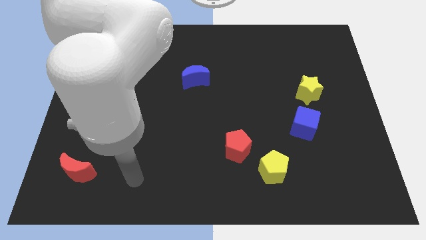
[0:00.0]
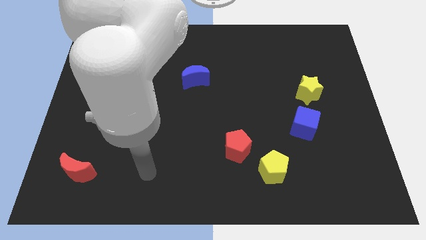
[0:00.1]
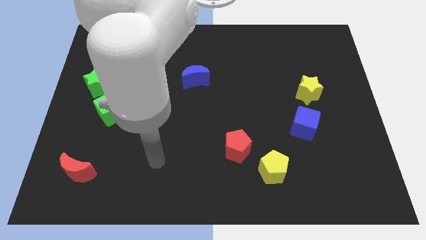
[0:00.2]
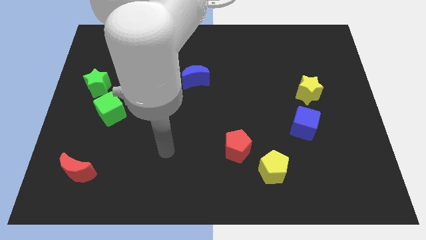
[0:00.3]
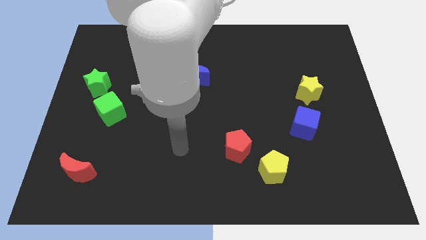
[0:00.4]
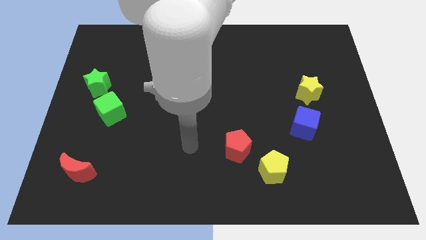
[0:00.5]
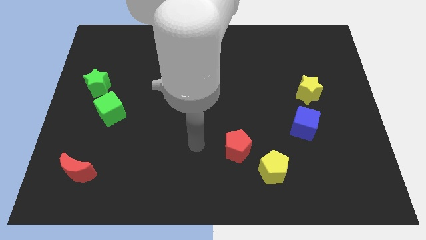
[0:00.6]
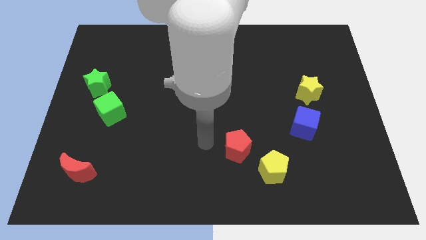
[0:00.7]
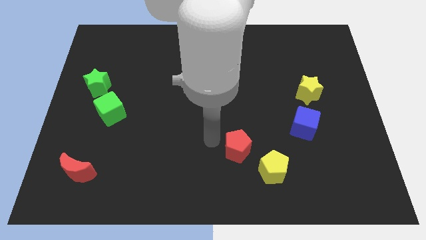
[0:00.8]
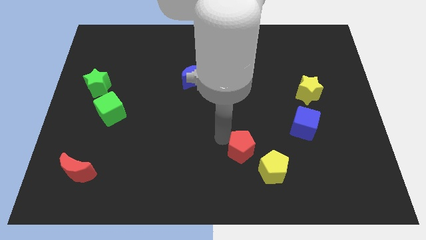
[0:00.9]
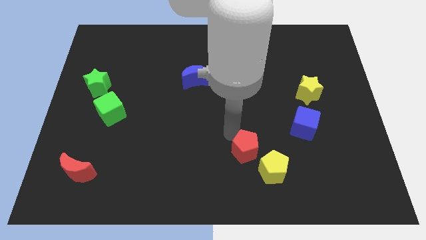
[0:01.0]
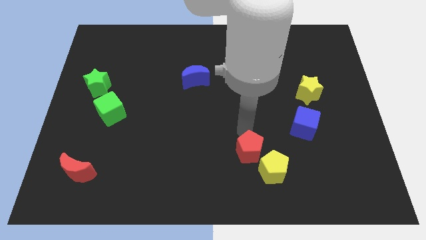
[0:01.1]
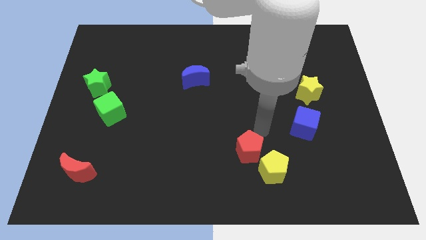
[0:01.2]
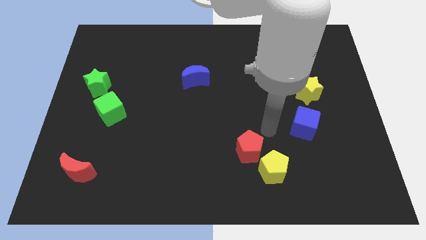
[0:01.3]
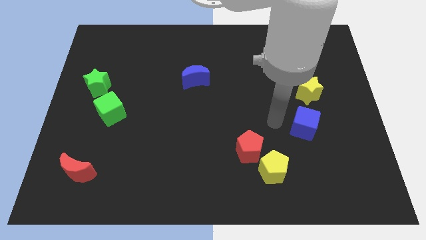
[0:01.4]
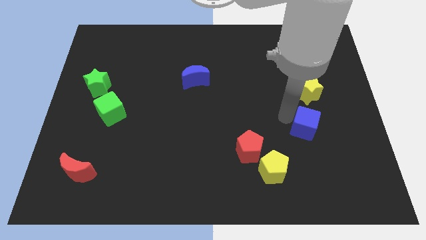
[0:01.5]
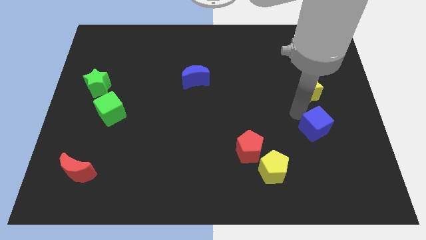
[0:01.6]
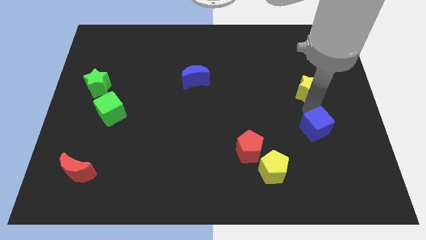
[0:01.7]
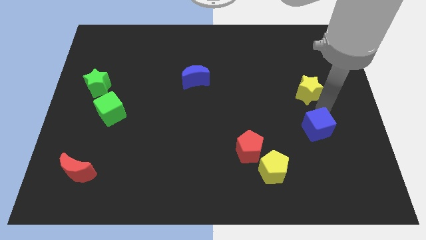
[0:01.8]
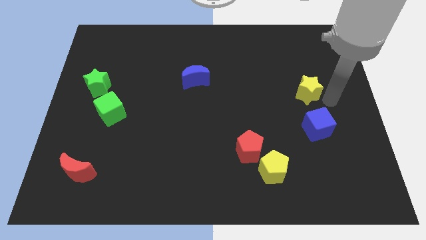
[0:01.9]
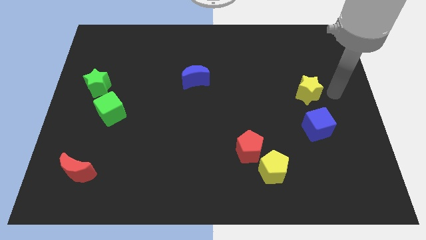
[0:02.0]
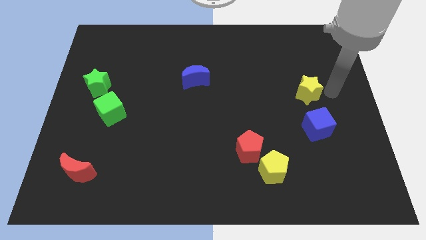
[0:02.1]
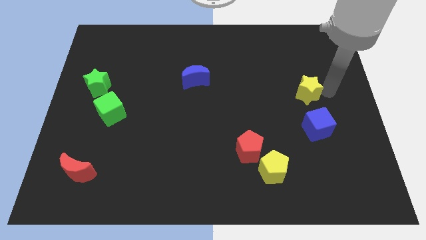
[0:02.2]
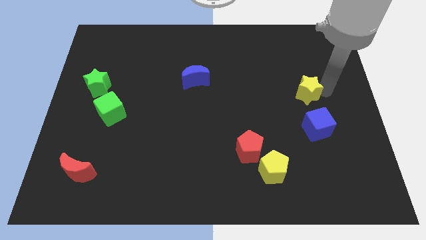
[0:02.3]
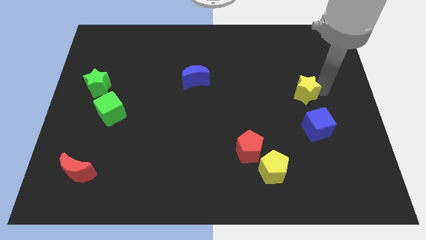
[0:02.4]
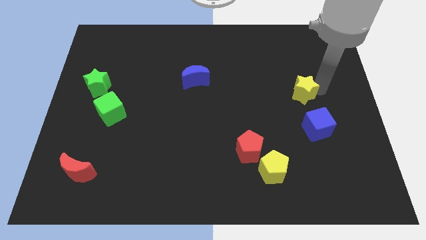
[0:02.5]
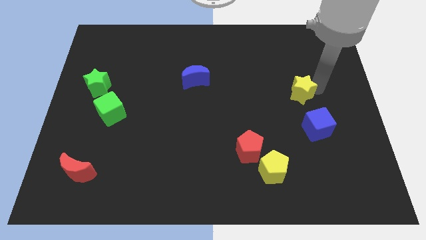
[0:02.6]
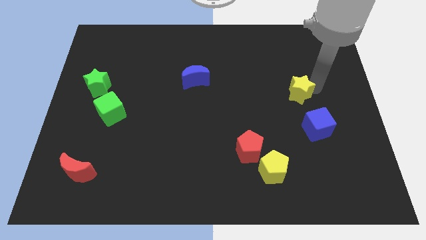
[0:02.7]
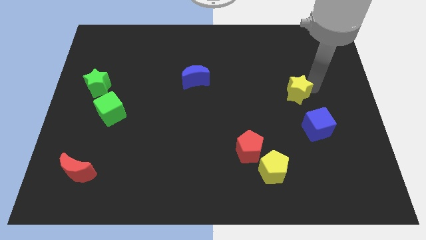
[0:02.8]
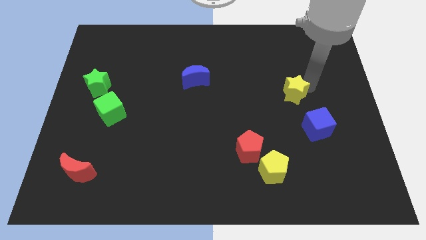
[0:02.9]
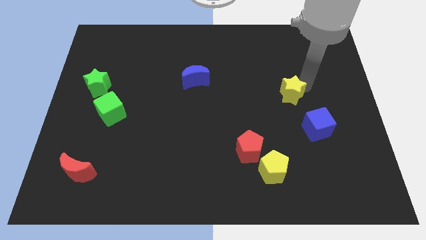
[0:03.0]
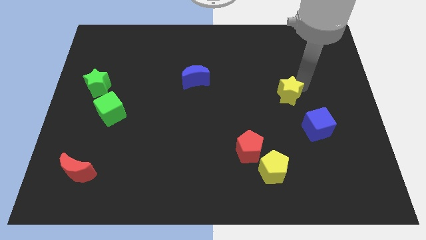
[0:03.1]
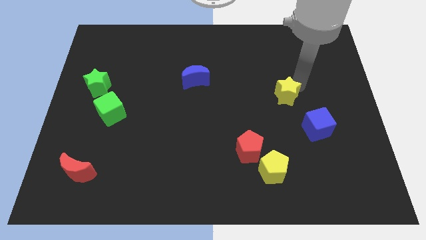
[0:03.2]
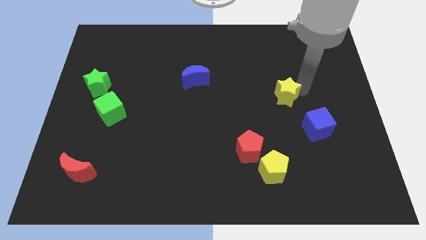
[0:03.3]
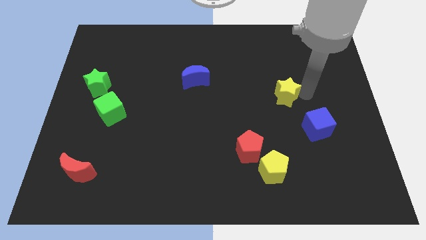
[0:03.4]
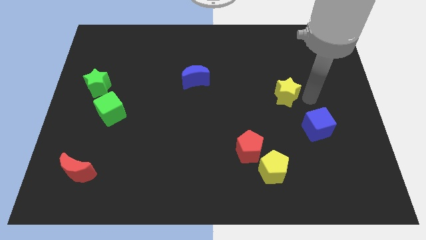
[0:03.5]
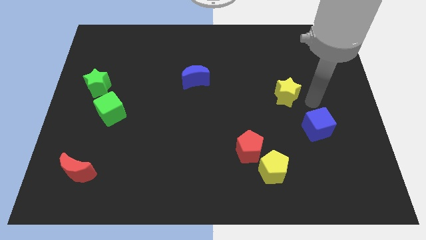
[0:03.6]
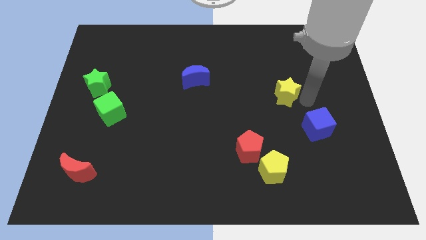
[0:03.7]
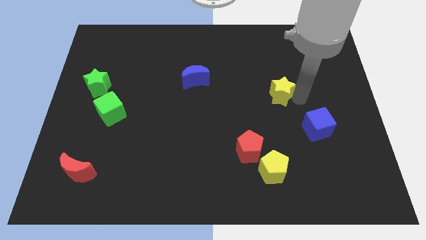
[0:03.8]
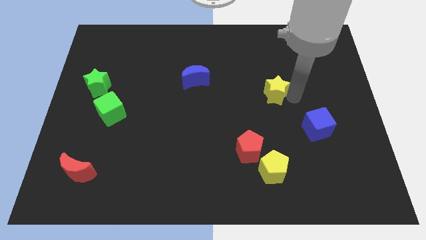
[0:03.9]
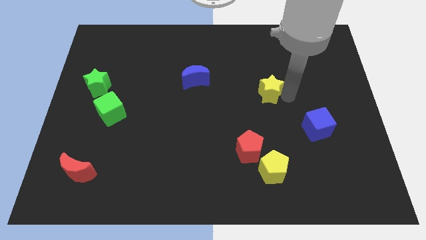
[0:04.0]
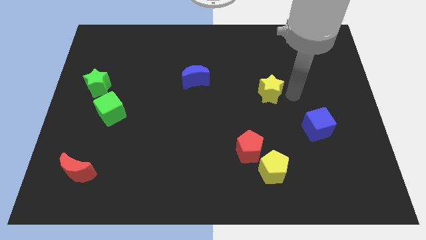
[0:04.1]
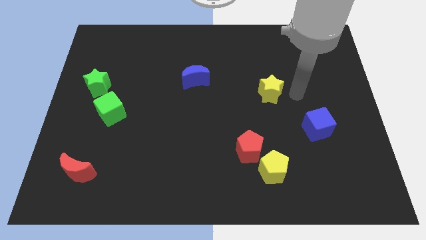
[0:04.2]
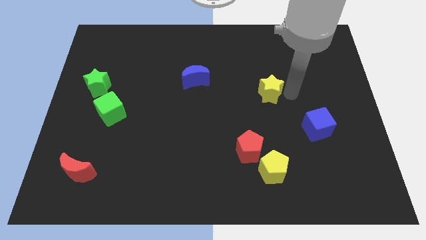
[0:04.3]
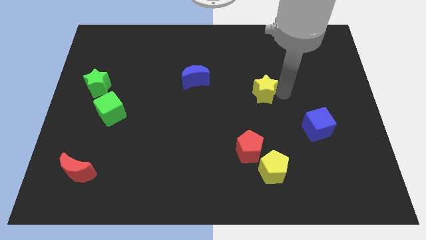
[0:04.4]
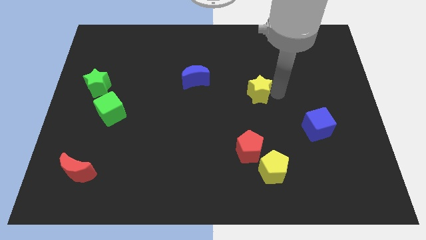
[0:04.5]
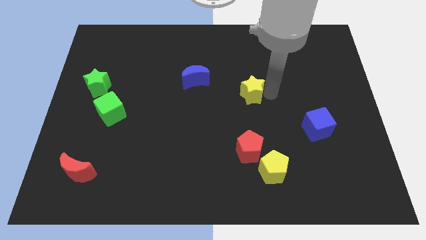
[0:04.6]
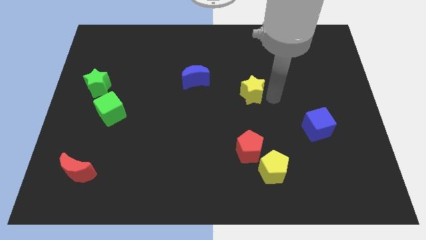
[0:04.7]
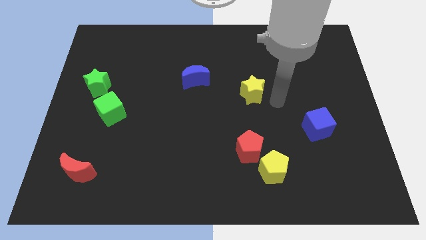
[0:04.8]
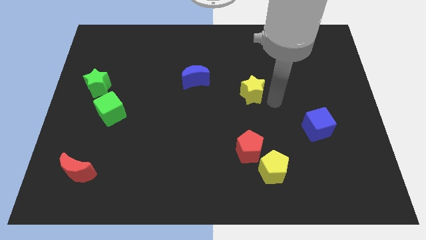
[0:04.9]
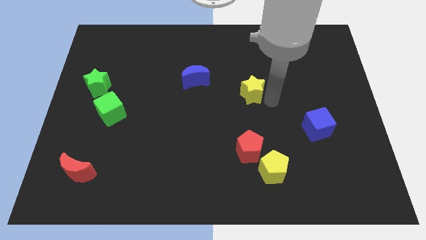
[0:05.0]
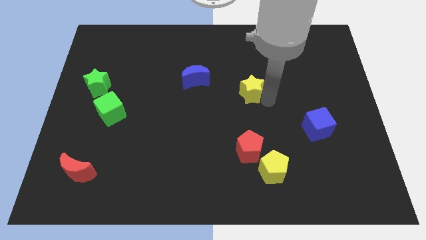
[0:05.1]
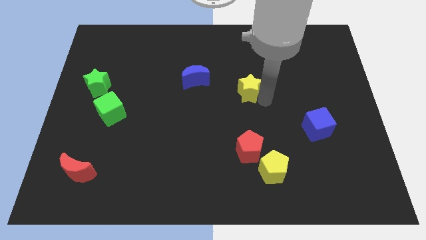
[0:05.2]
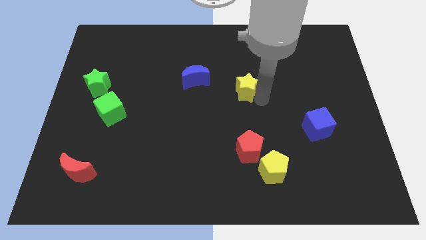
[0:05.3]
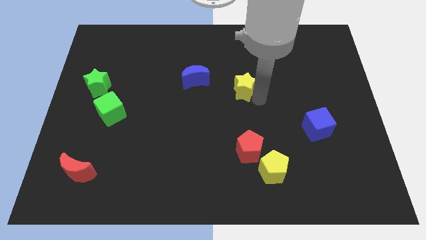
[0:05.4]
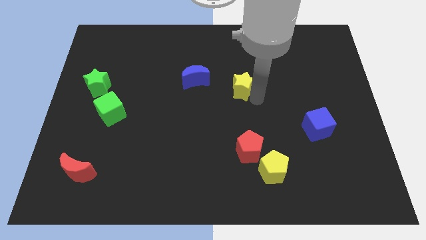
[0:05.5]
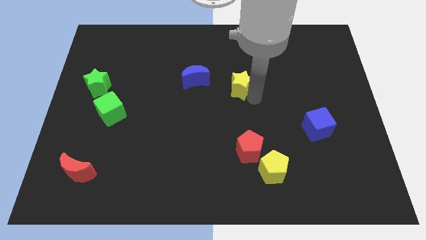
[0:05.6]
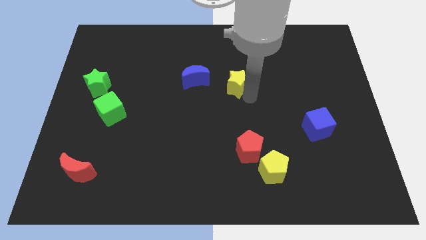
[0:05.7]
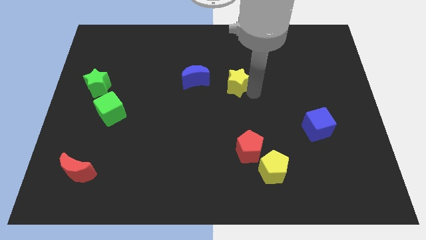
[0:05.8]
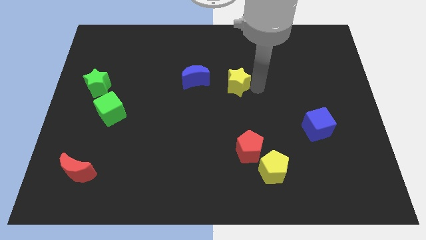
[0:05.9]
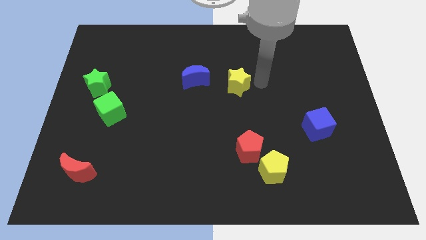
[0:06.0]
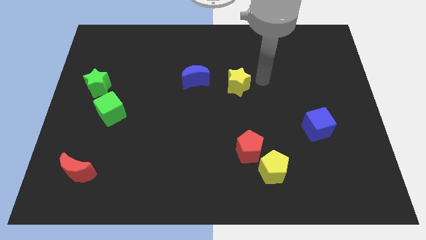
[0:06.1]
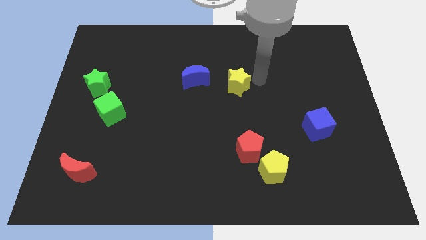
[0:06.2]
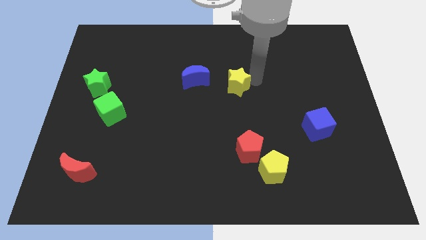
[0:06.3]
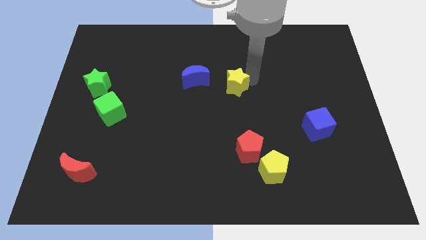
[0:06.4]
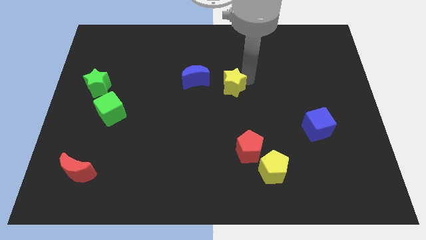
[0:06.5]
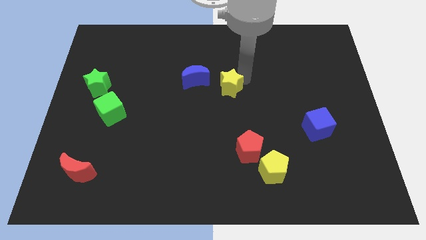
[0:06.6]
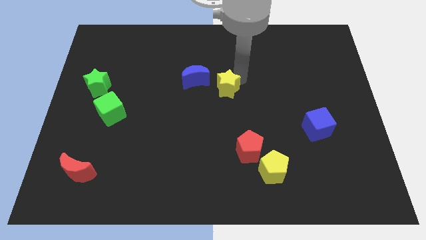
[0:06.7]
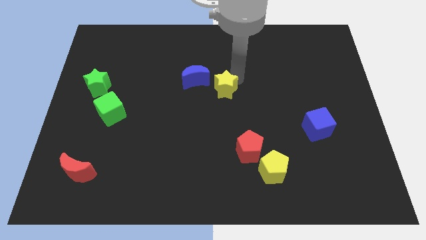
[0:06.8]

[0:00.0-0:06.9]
push the yellow star left

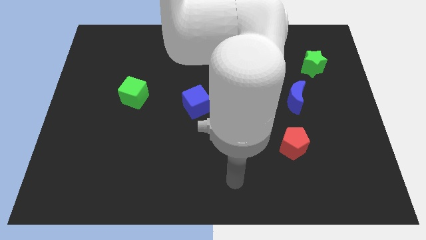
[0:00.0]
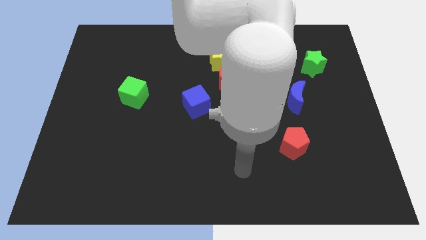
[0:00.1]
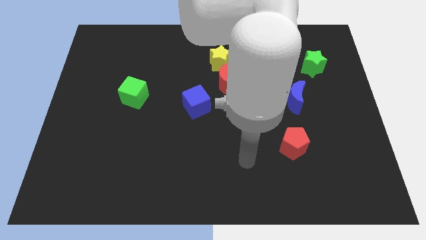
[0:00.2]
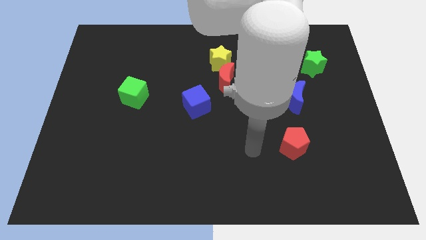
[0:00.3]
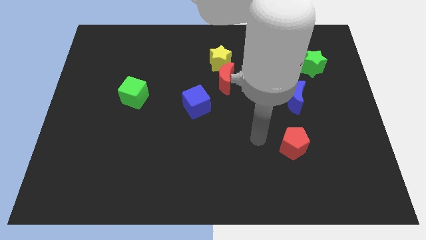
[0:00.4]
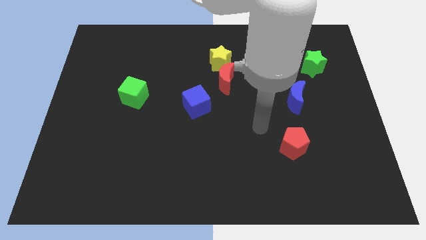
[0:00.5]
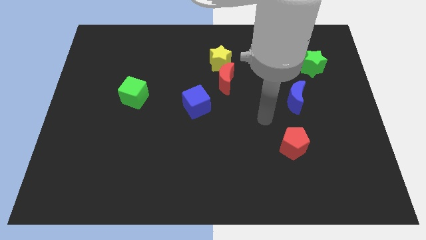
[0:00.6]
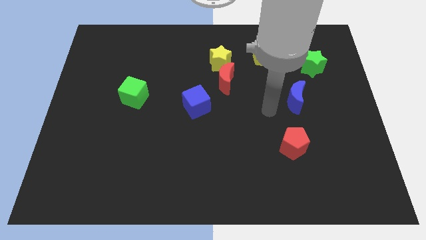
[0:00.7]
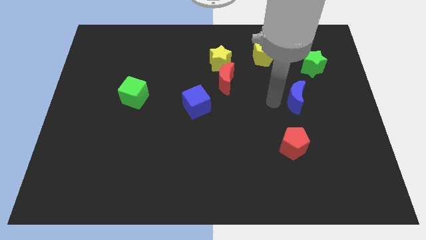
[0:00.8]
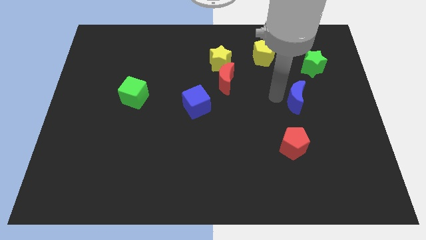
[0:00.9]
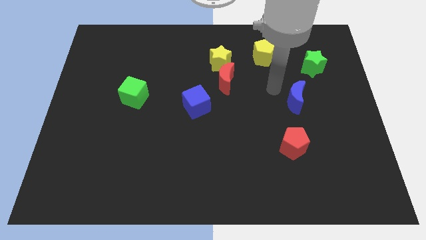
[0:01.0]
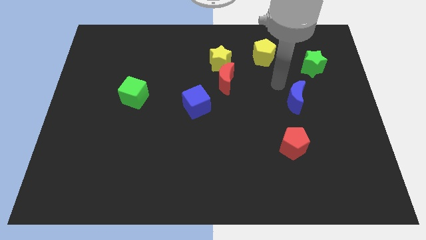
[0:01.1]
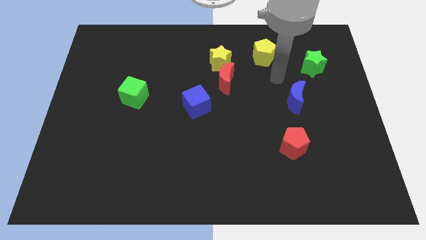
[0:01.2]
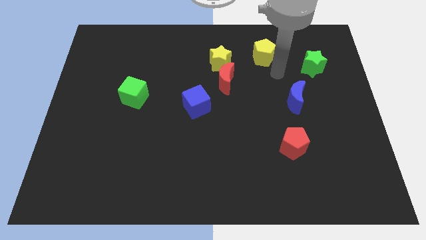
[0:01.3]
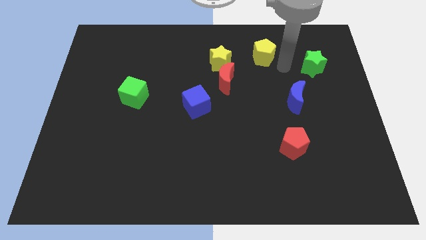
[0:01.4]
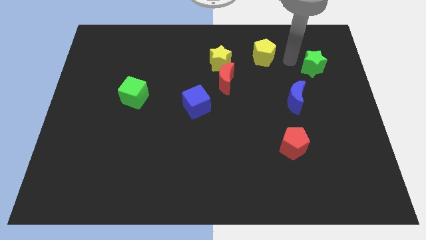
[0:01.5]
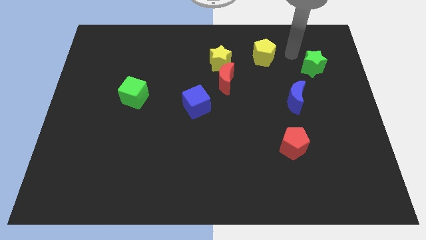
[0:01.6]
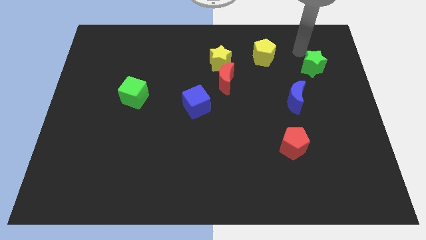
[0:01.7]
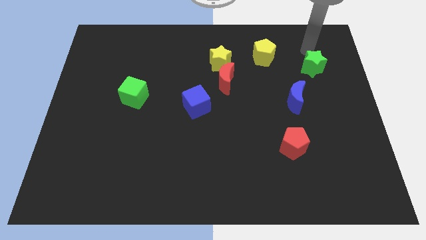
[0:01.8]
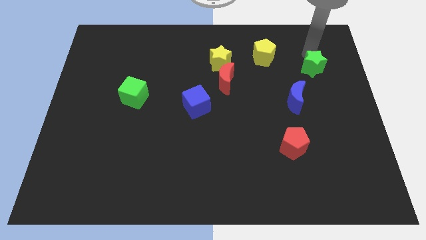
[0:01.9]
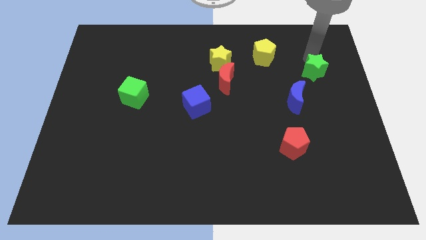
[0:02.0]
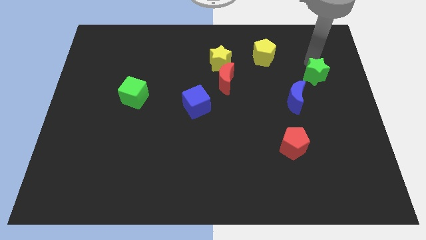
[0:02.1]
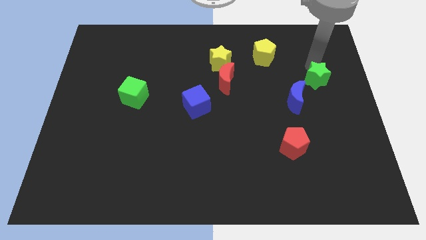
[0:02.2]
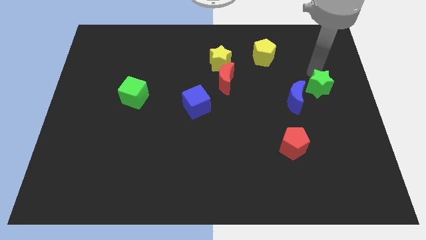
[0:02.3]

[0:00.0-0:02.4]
slide the green star a little downwards
